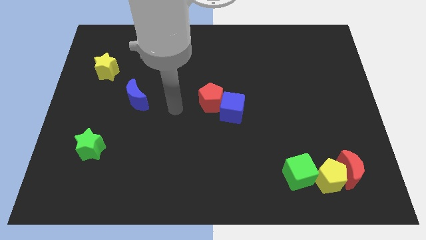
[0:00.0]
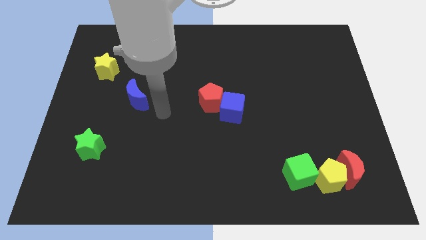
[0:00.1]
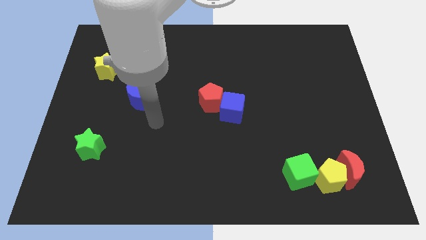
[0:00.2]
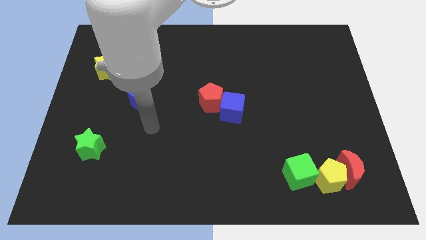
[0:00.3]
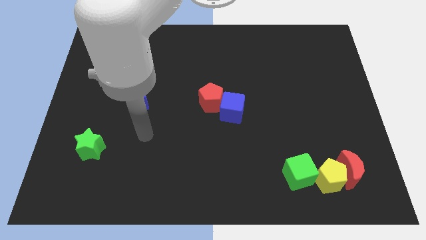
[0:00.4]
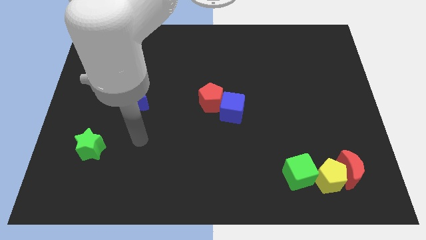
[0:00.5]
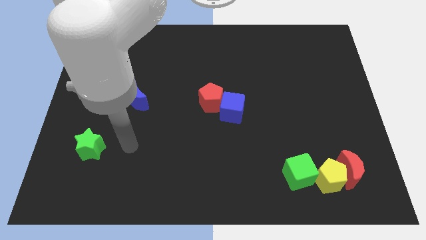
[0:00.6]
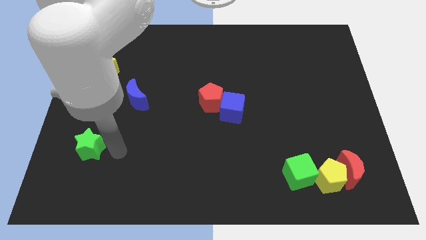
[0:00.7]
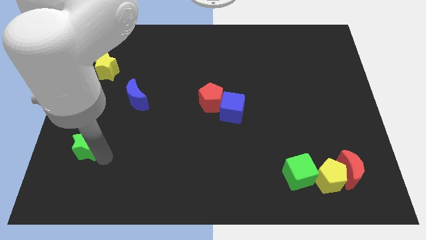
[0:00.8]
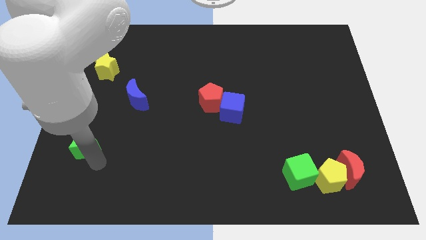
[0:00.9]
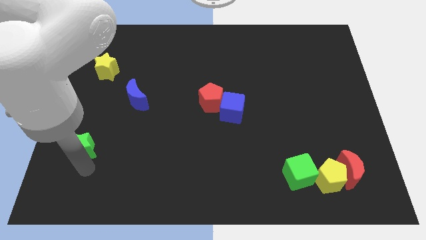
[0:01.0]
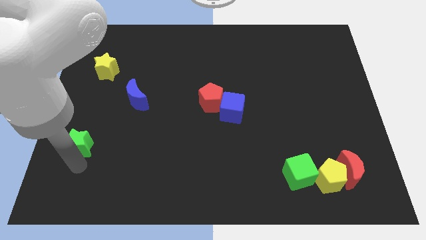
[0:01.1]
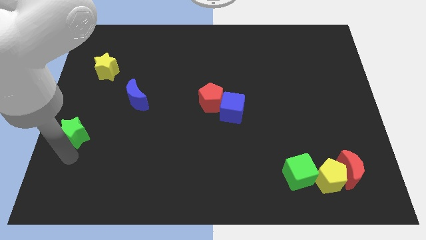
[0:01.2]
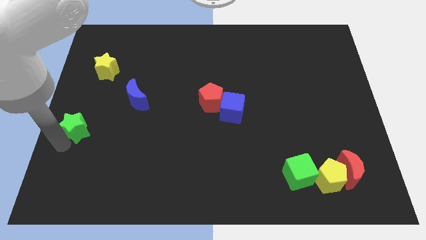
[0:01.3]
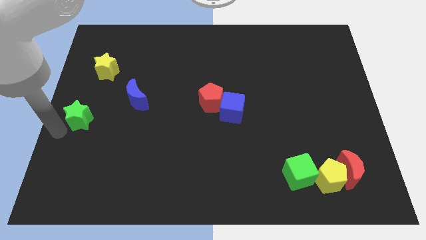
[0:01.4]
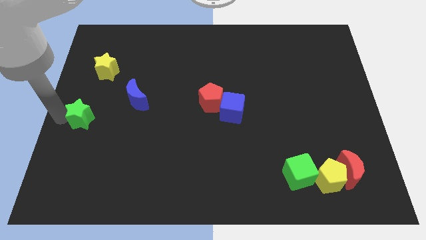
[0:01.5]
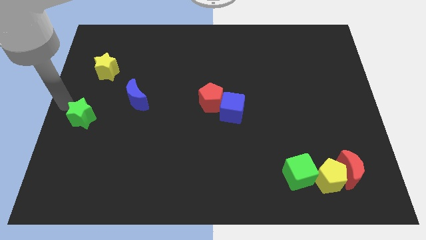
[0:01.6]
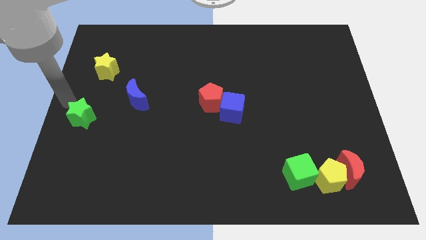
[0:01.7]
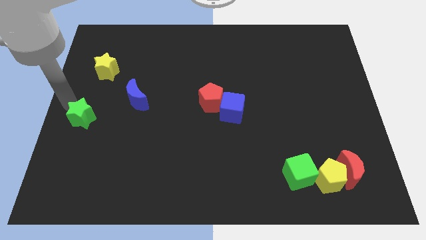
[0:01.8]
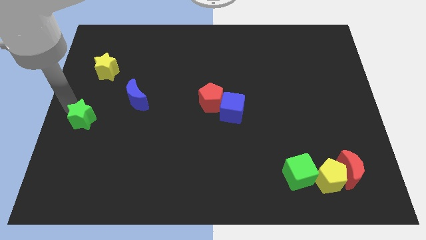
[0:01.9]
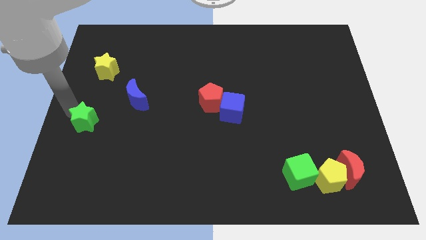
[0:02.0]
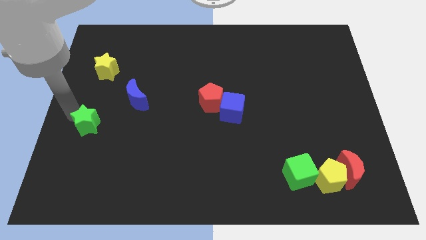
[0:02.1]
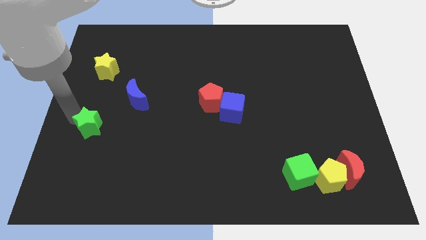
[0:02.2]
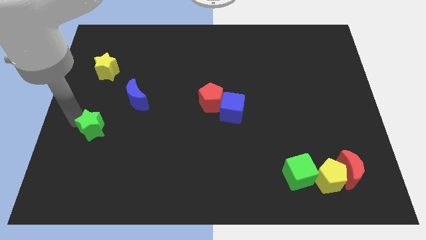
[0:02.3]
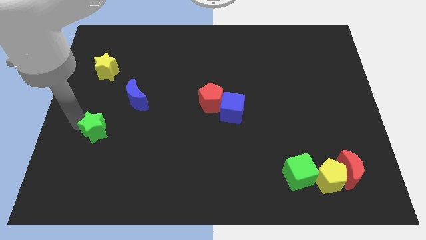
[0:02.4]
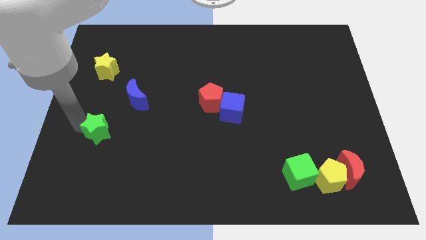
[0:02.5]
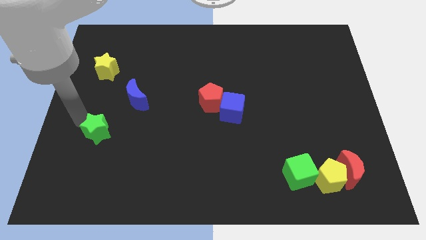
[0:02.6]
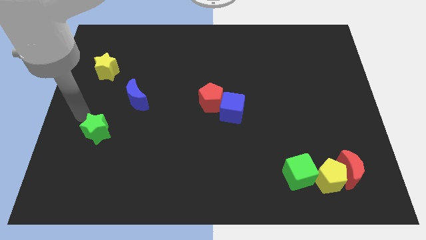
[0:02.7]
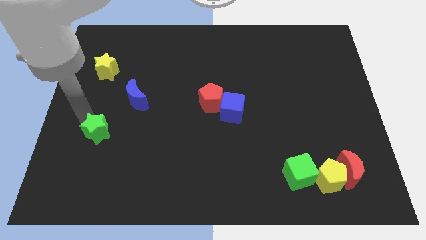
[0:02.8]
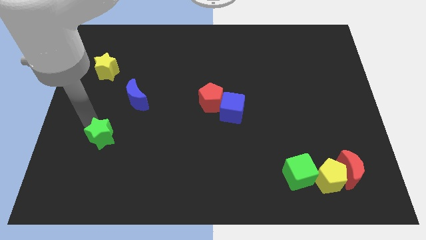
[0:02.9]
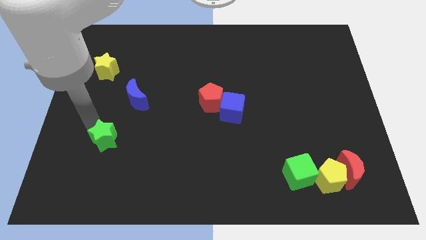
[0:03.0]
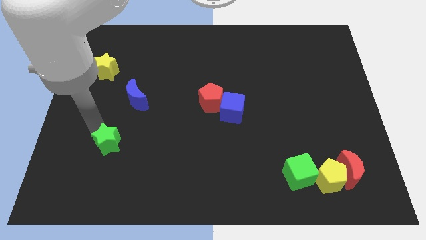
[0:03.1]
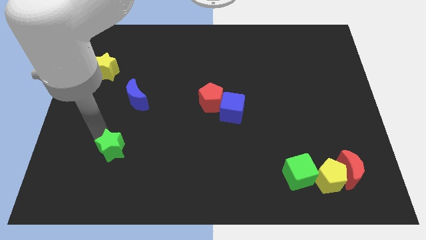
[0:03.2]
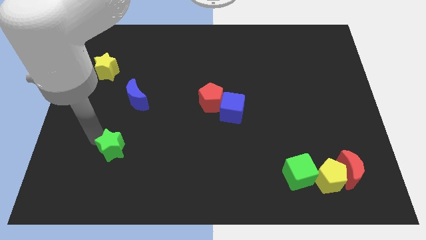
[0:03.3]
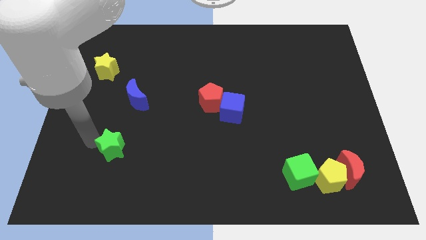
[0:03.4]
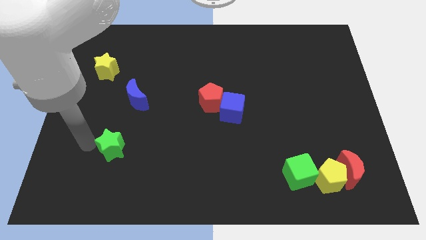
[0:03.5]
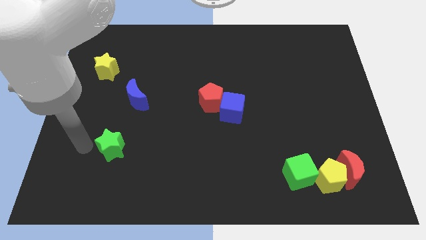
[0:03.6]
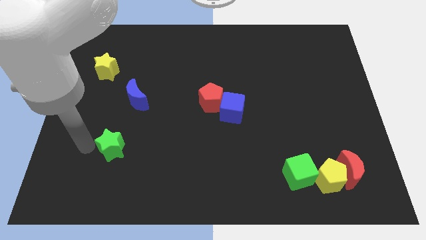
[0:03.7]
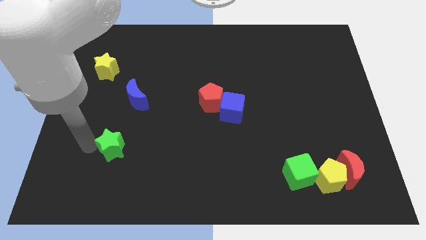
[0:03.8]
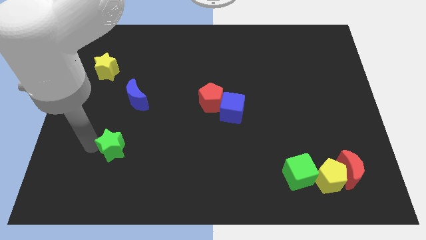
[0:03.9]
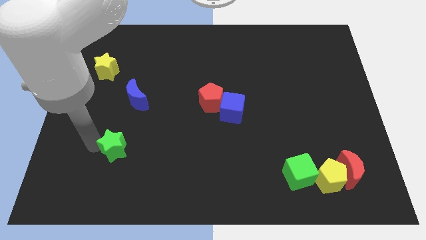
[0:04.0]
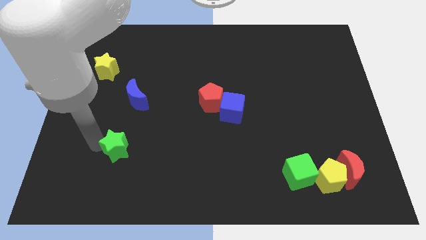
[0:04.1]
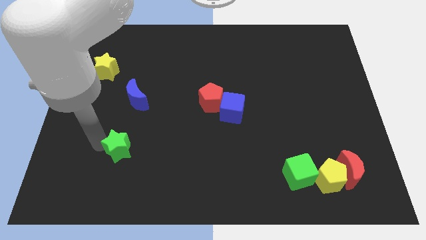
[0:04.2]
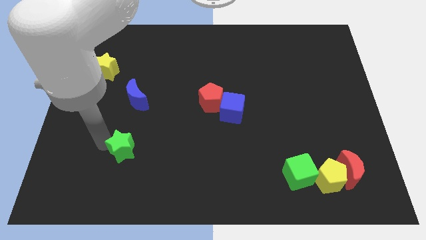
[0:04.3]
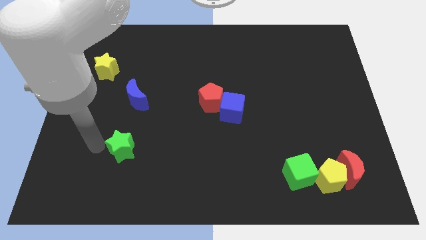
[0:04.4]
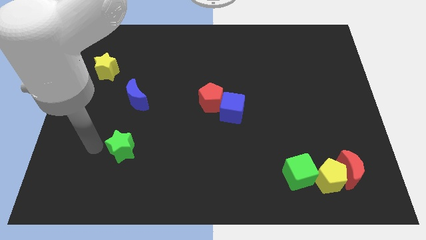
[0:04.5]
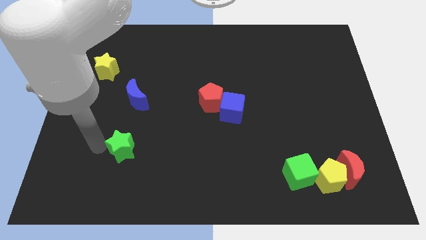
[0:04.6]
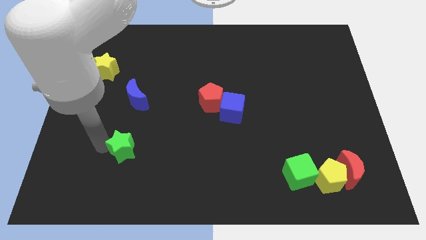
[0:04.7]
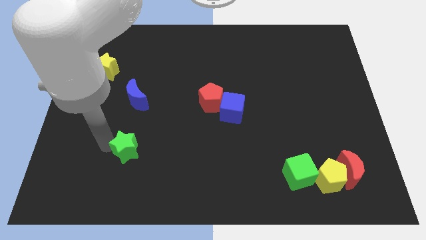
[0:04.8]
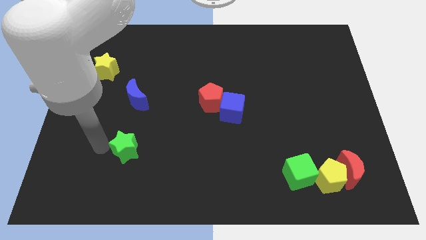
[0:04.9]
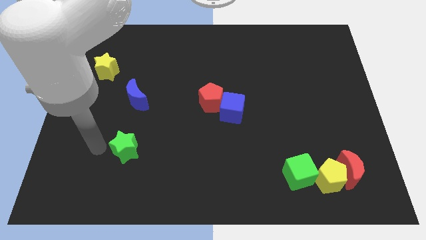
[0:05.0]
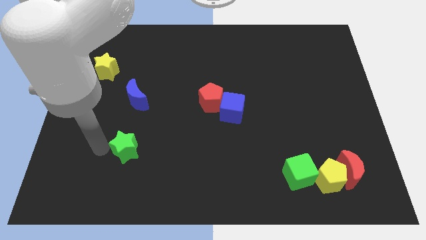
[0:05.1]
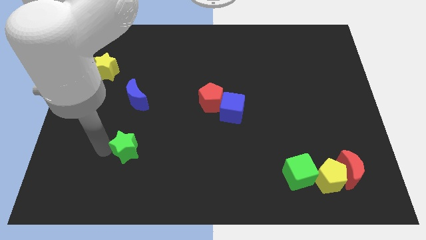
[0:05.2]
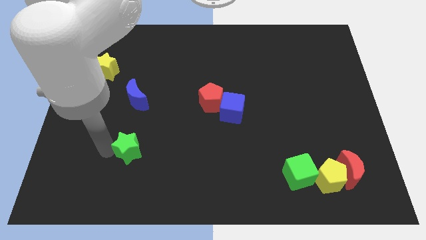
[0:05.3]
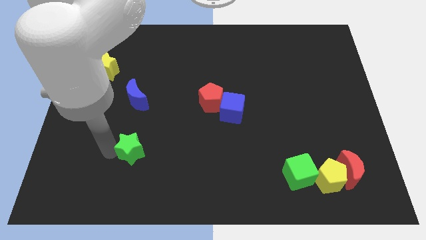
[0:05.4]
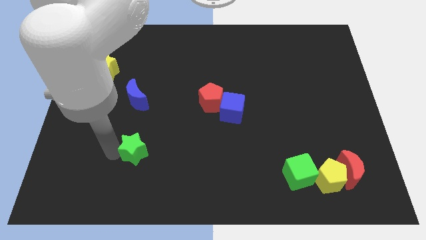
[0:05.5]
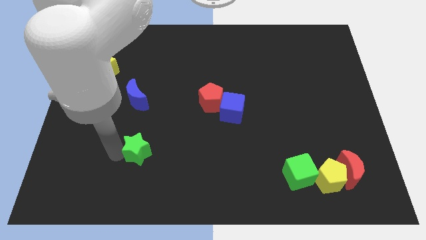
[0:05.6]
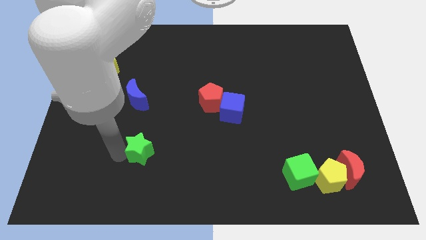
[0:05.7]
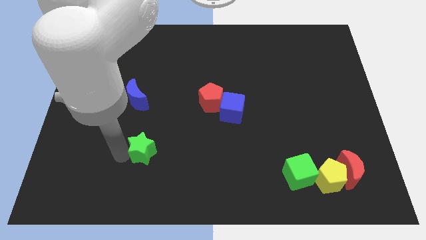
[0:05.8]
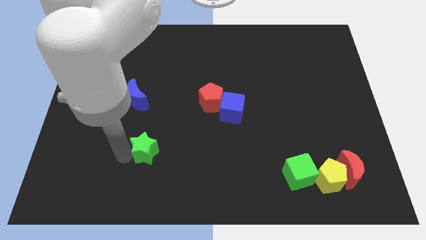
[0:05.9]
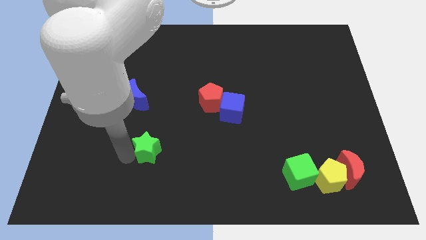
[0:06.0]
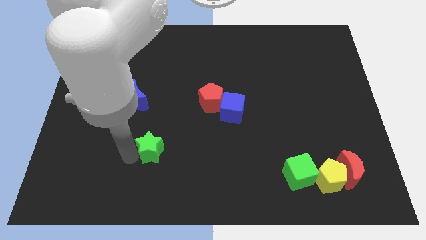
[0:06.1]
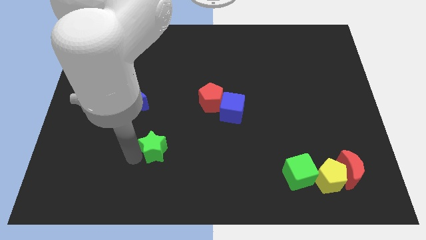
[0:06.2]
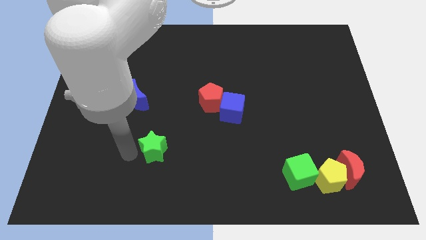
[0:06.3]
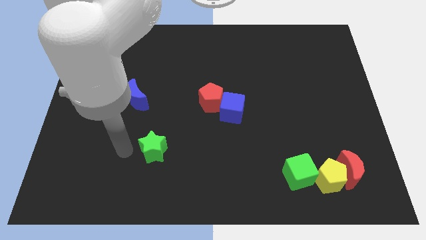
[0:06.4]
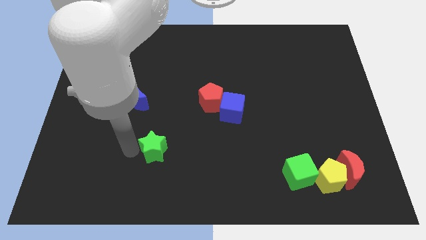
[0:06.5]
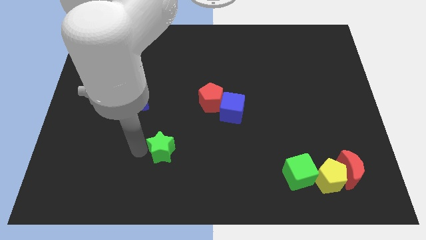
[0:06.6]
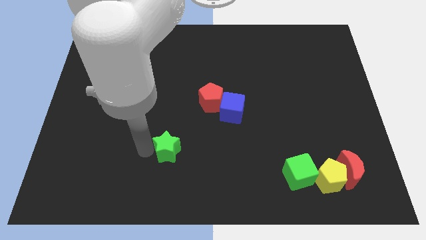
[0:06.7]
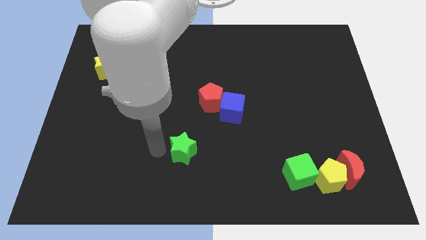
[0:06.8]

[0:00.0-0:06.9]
push the green star right

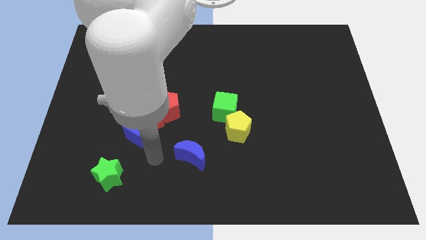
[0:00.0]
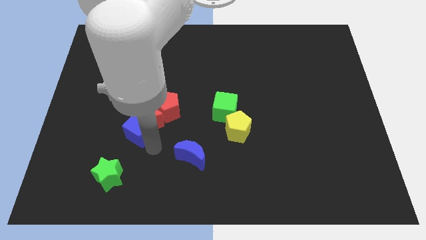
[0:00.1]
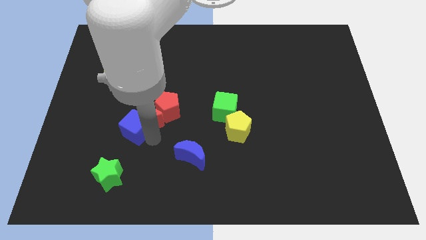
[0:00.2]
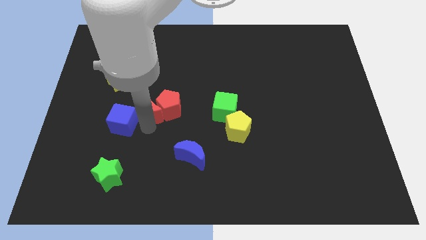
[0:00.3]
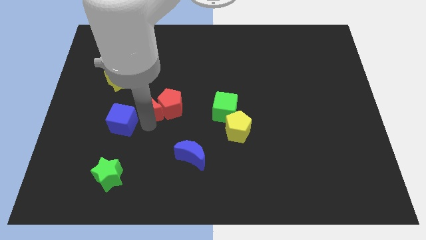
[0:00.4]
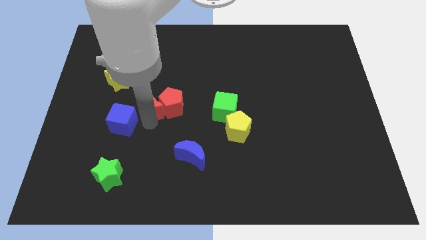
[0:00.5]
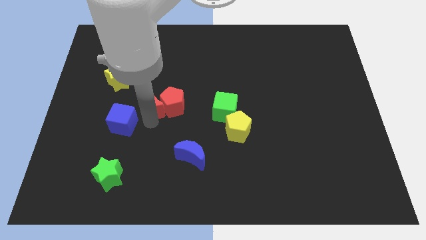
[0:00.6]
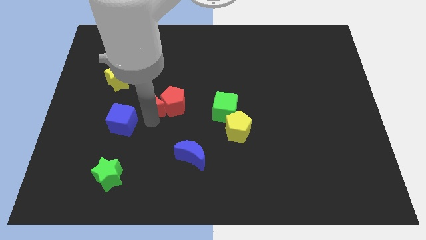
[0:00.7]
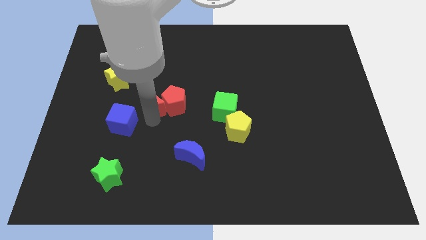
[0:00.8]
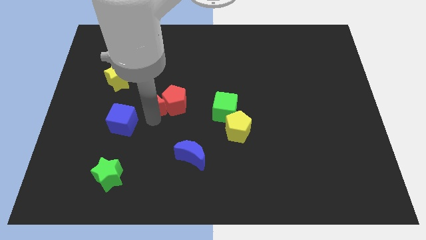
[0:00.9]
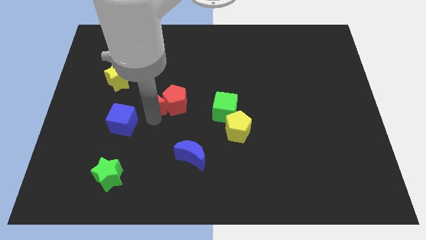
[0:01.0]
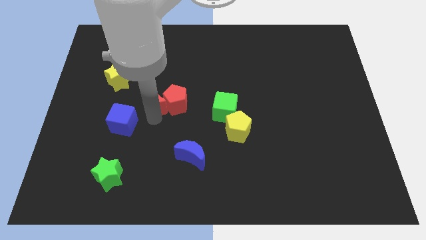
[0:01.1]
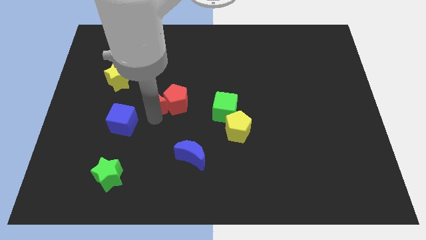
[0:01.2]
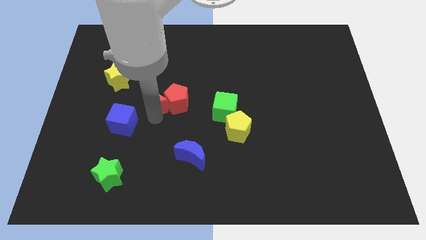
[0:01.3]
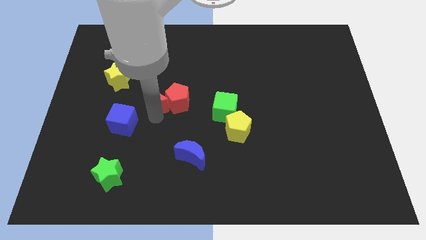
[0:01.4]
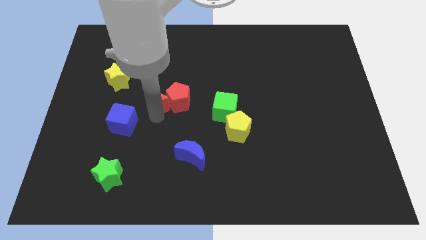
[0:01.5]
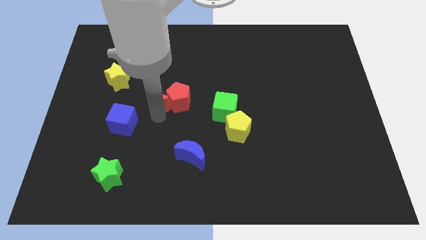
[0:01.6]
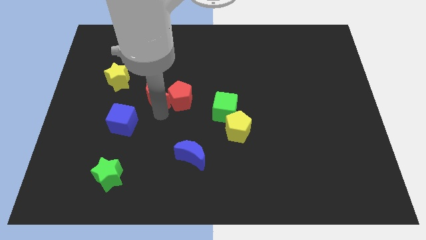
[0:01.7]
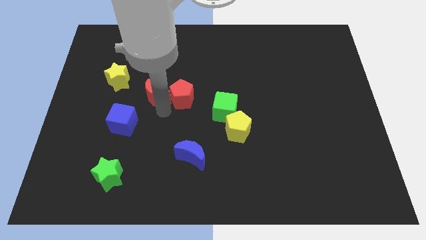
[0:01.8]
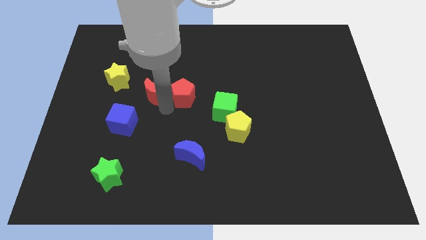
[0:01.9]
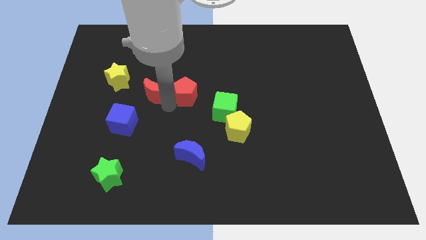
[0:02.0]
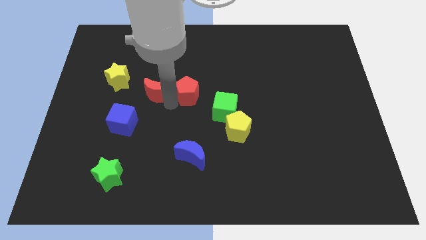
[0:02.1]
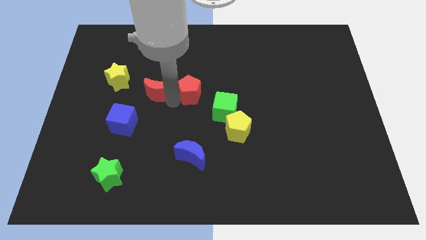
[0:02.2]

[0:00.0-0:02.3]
slide the red pentagon diagonally upwards and to the right a little bit
